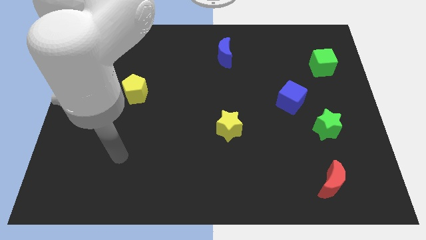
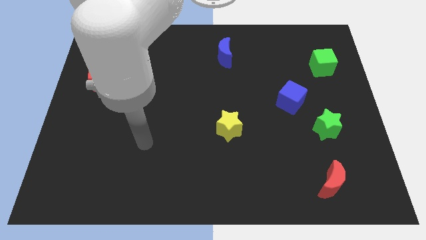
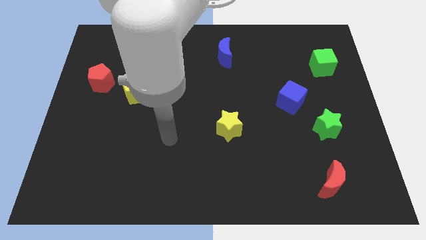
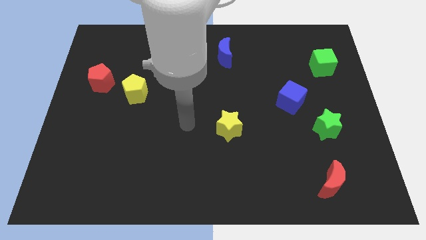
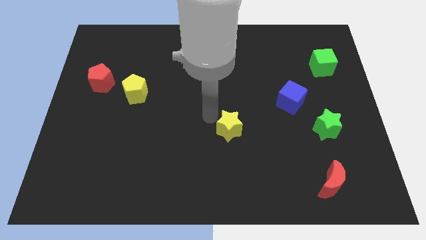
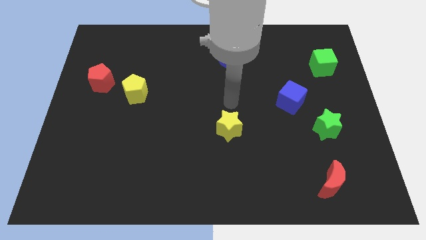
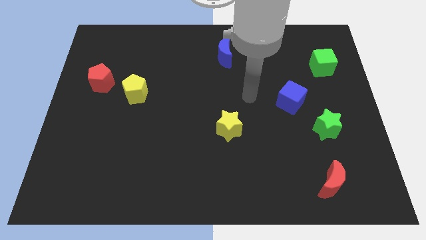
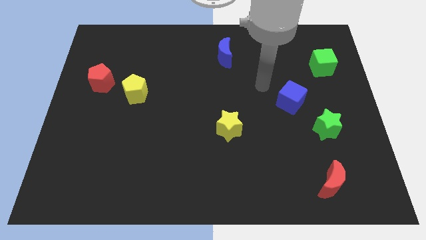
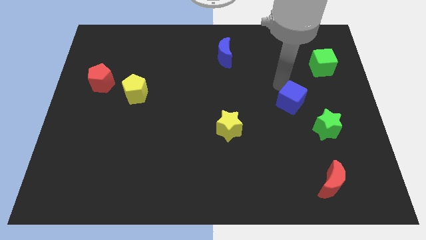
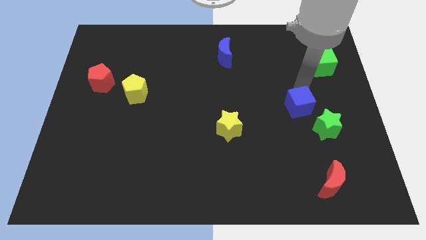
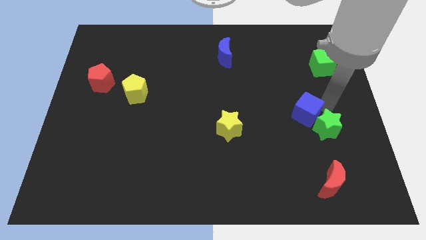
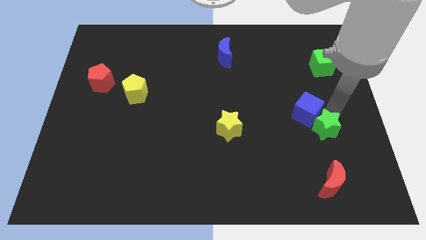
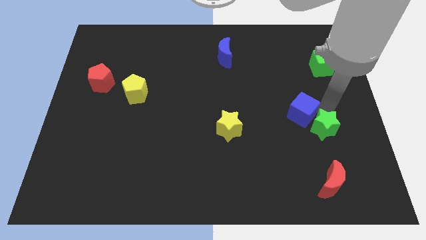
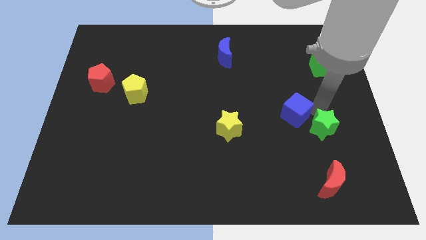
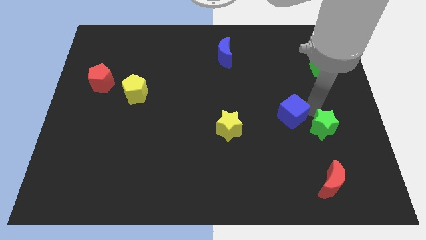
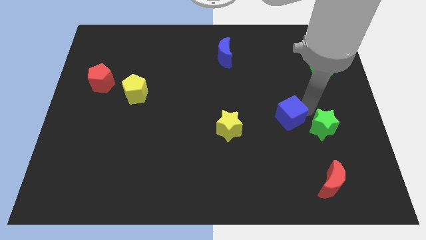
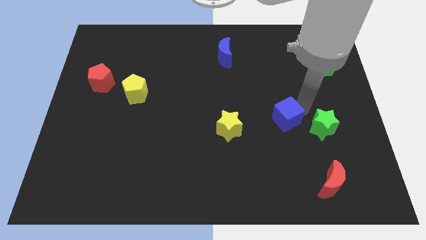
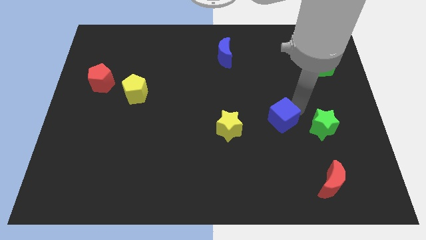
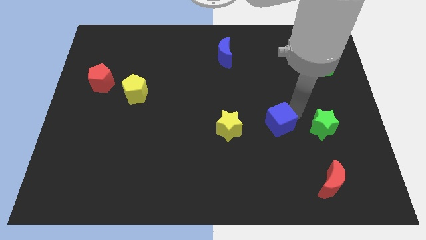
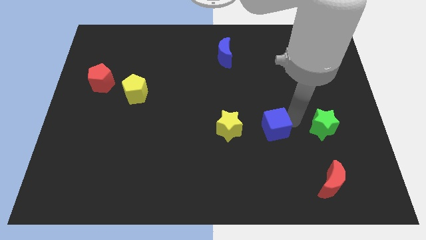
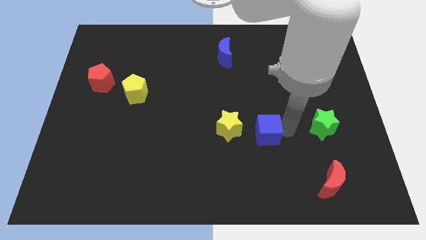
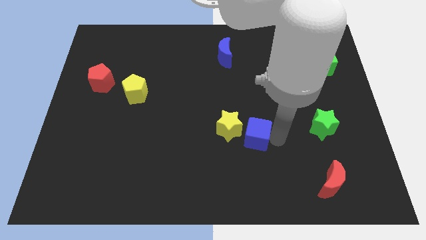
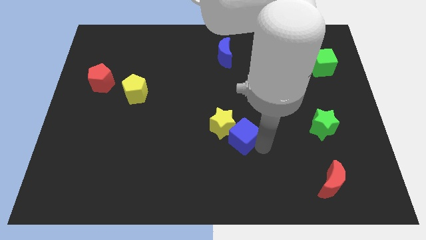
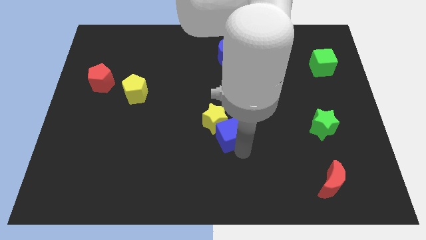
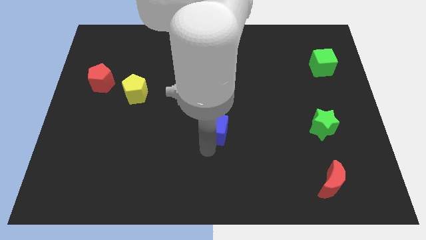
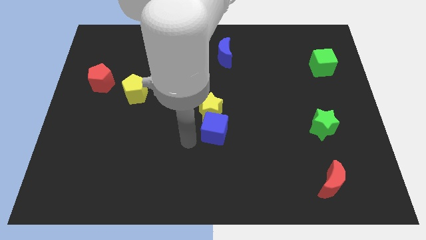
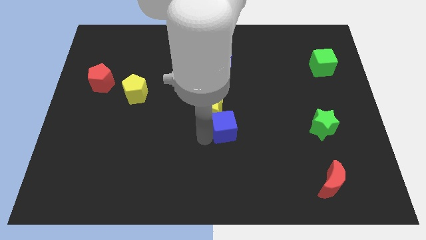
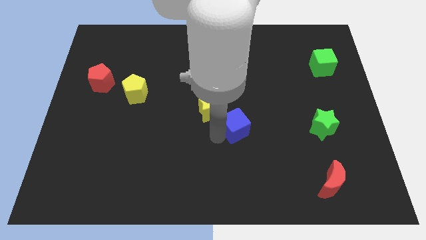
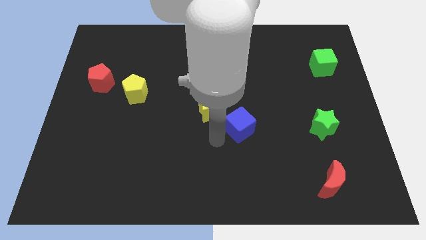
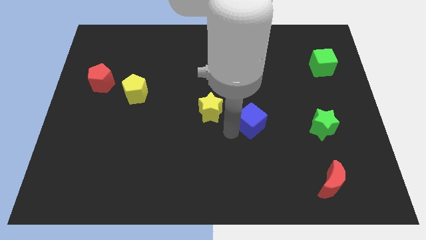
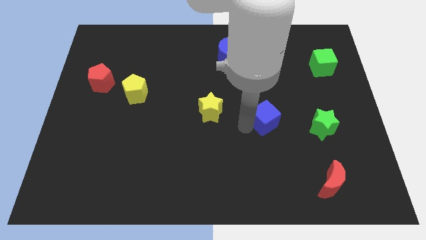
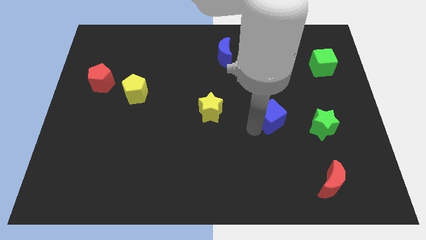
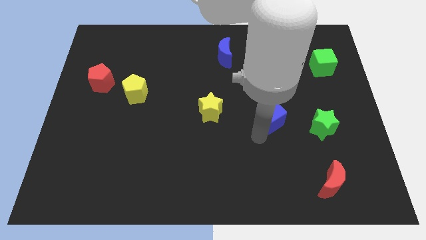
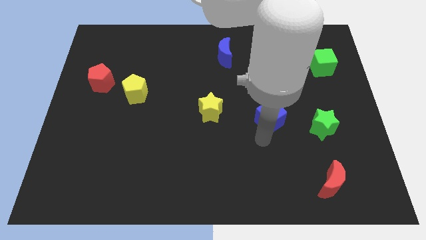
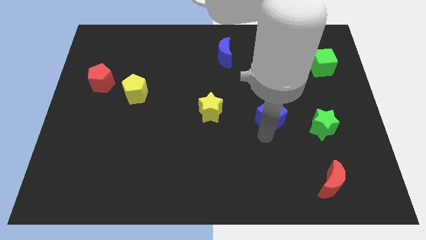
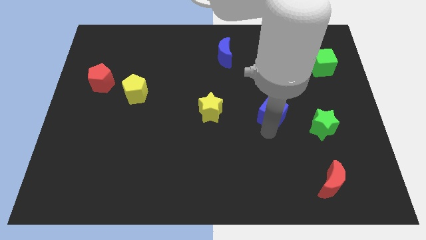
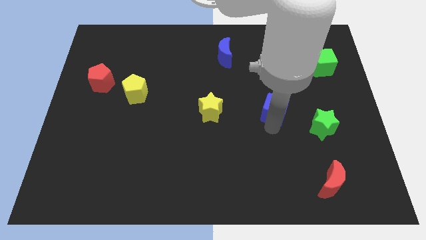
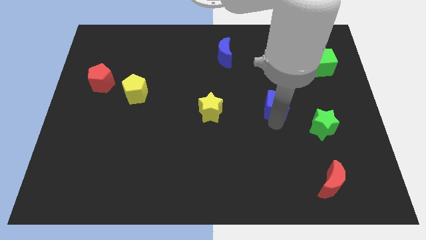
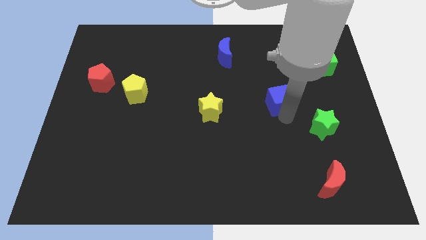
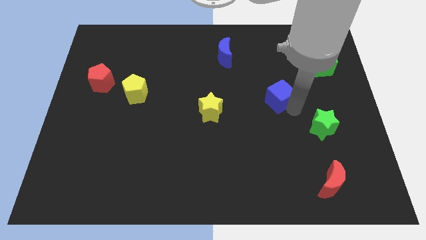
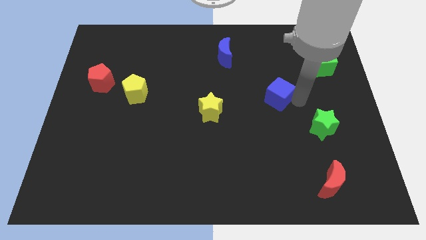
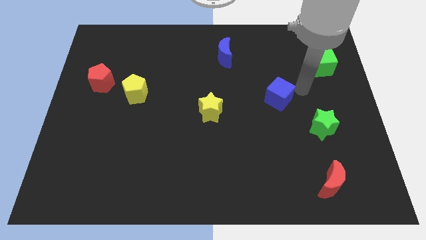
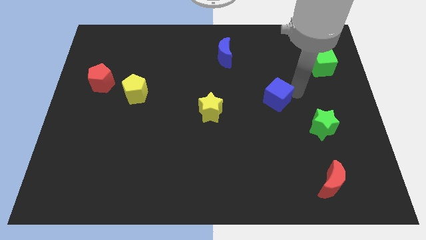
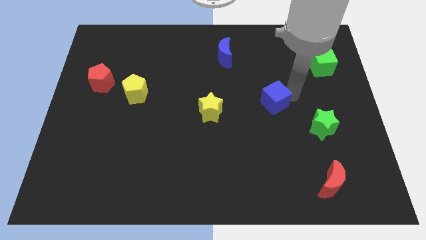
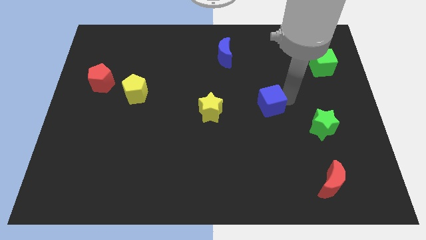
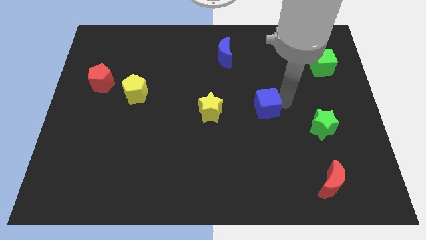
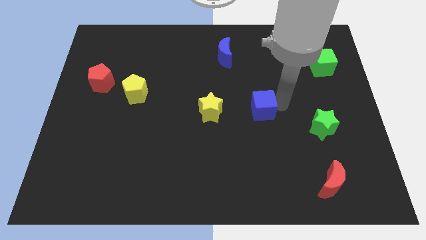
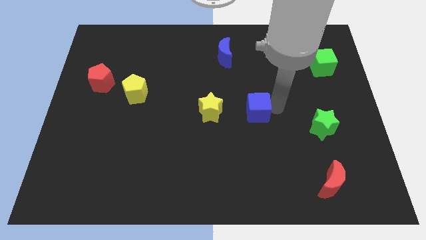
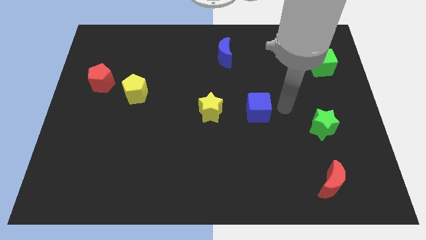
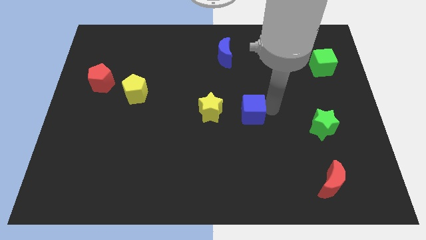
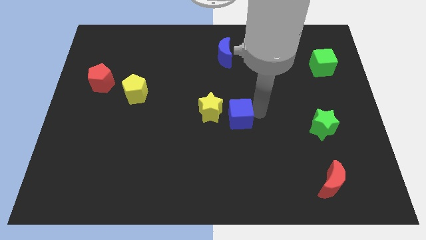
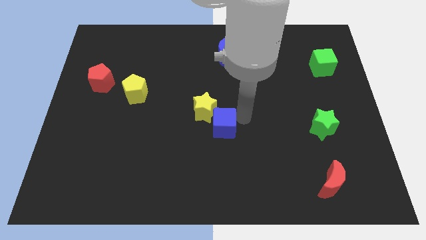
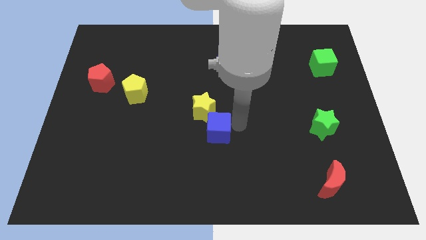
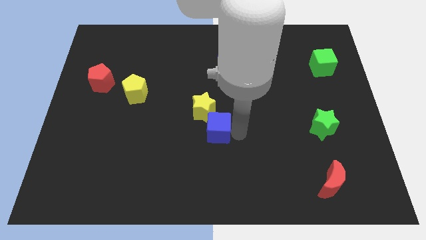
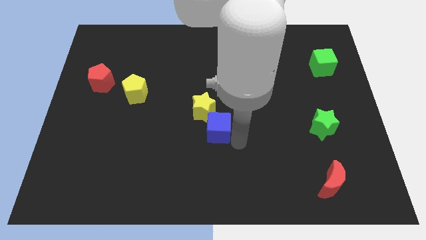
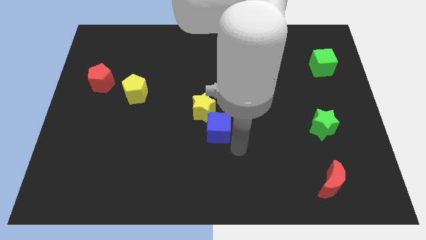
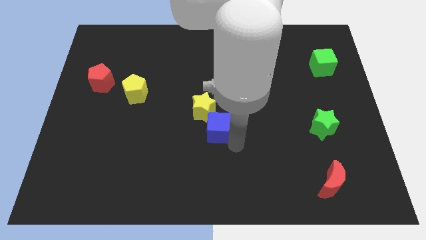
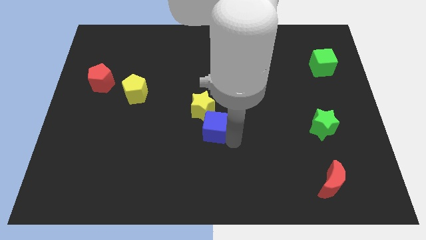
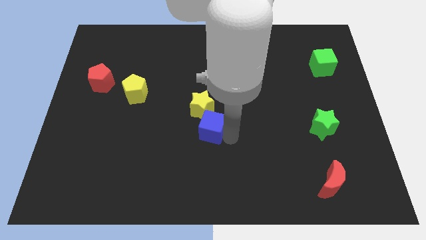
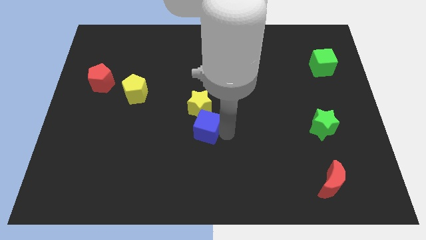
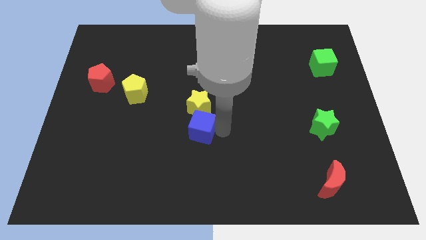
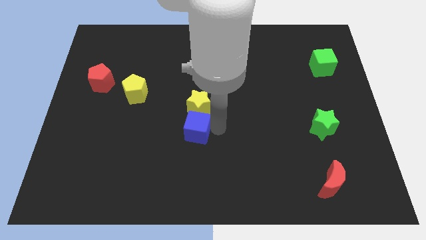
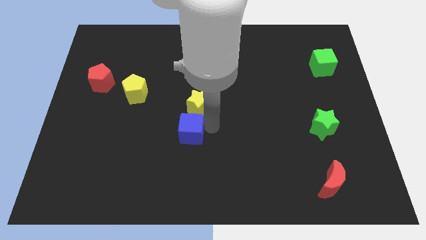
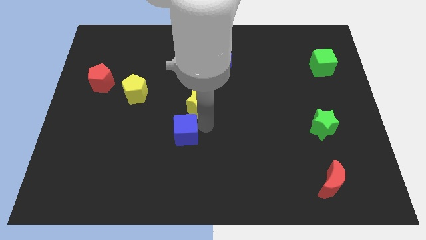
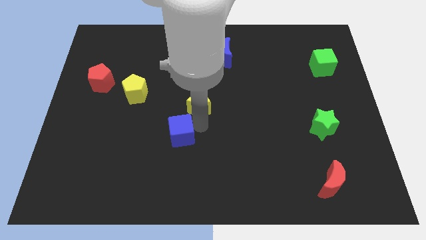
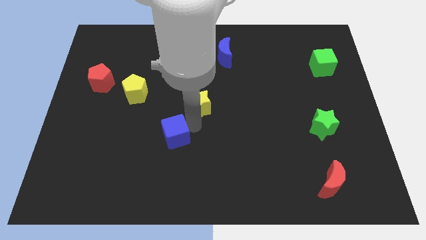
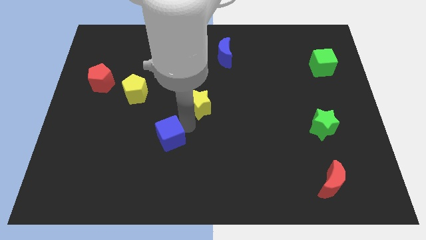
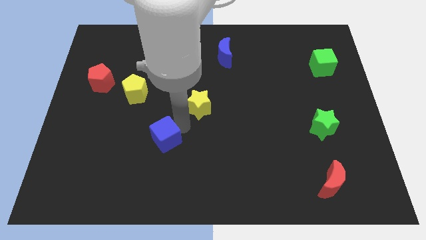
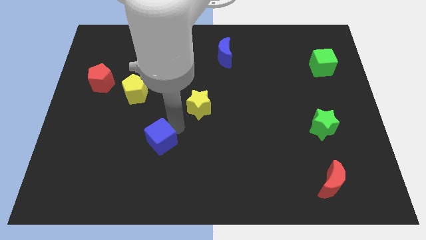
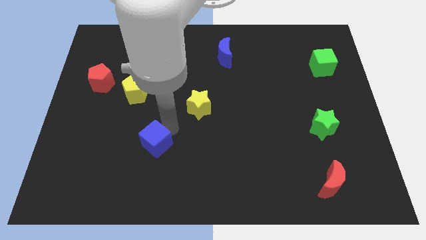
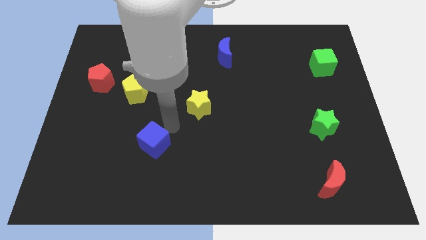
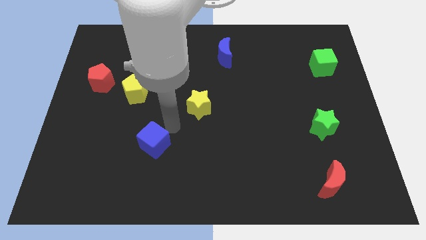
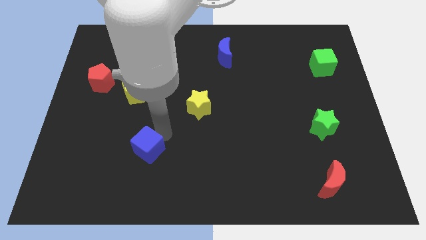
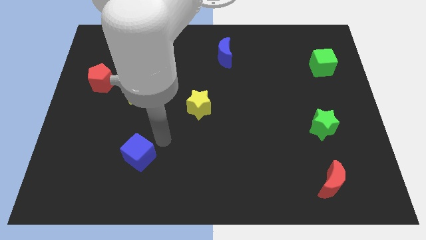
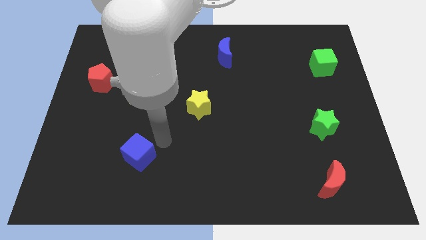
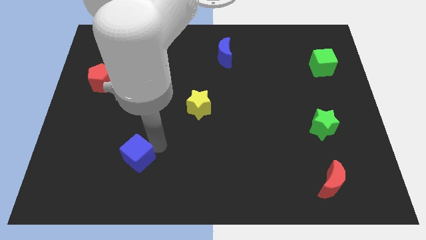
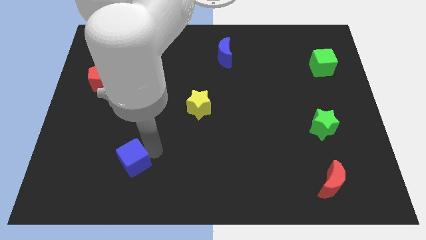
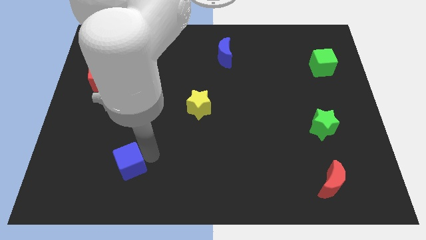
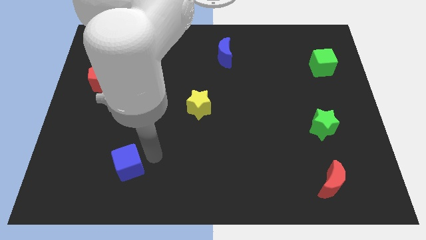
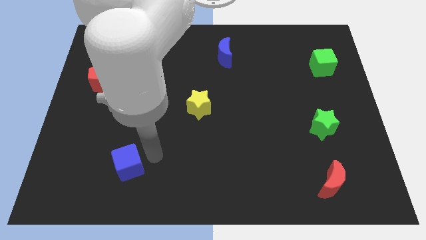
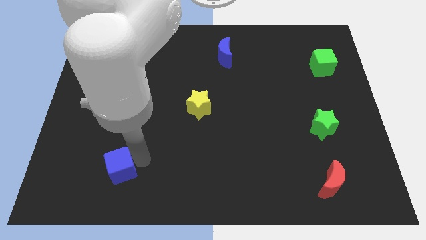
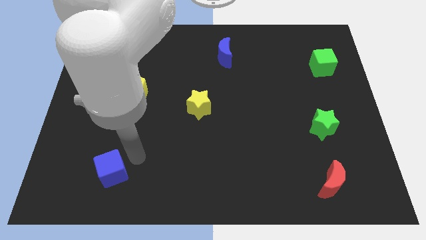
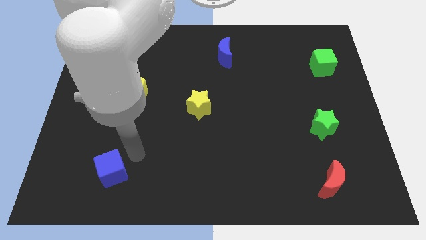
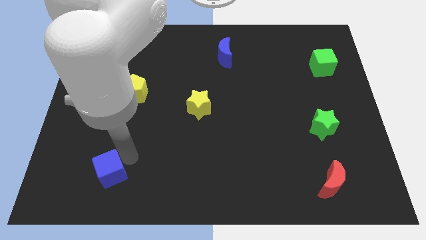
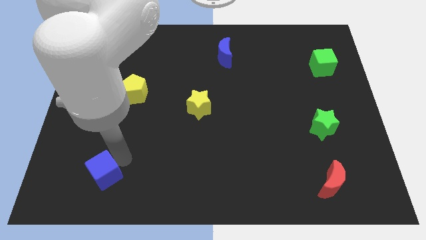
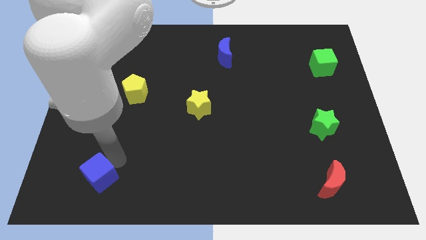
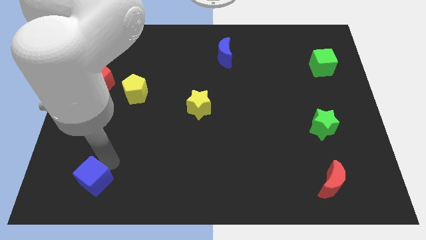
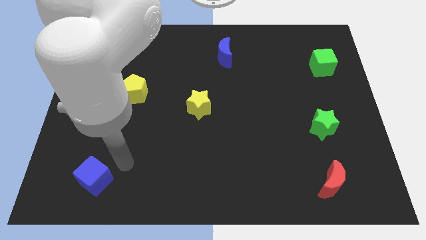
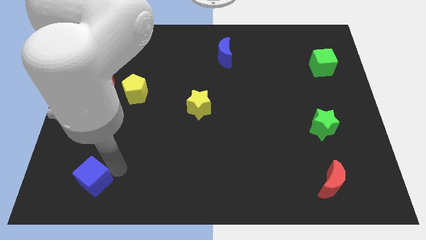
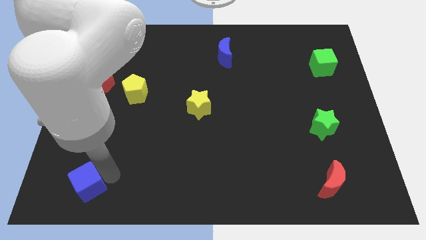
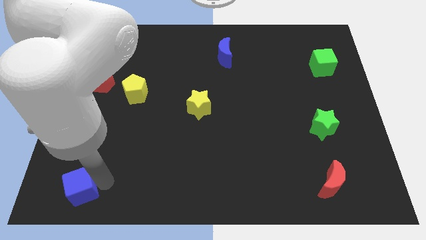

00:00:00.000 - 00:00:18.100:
slide the blue cube to the lower left corner
